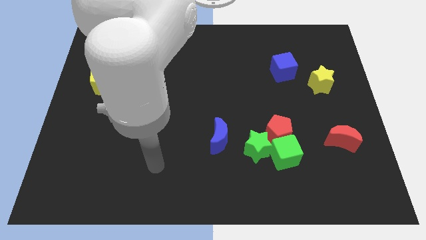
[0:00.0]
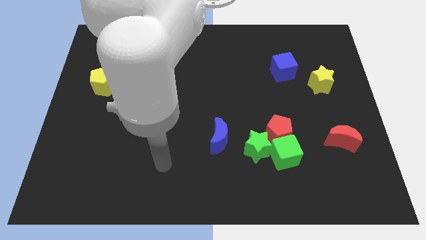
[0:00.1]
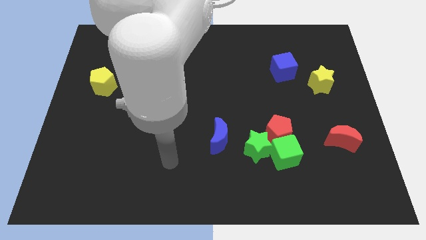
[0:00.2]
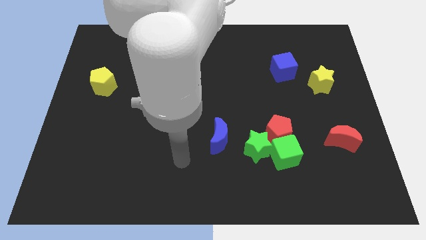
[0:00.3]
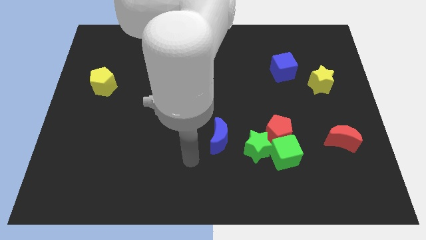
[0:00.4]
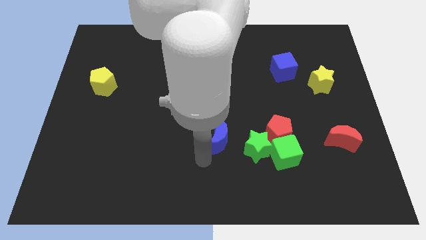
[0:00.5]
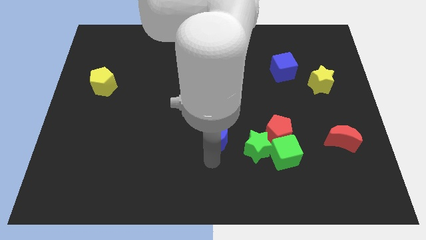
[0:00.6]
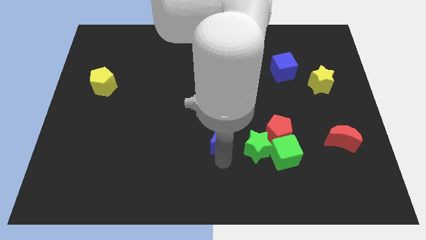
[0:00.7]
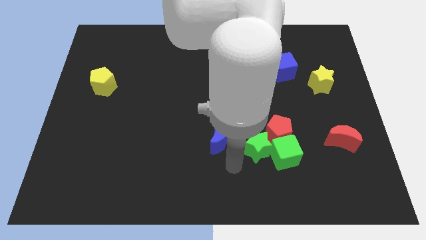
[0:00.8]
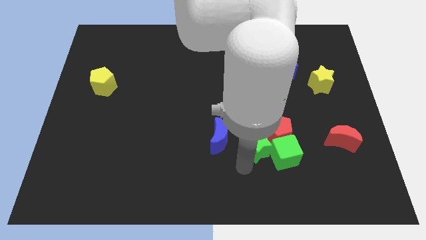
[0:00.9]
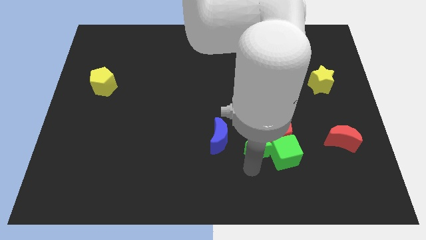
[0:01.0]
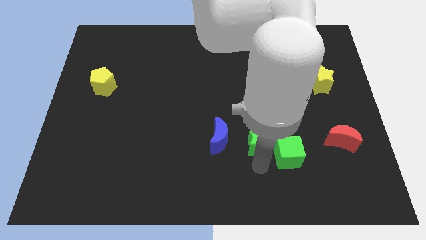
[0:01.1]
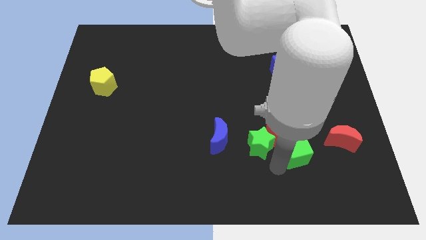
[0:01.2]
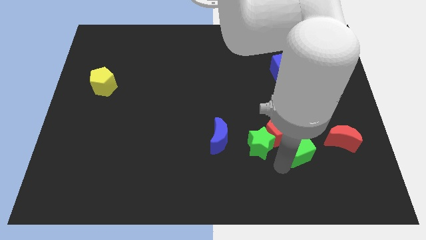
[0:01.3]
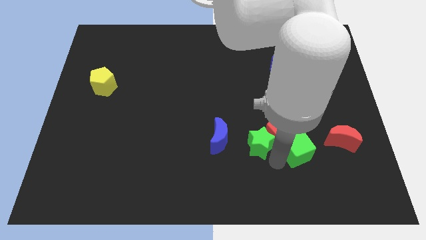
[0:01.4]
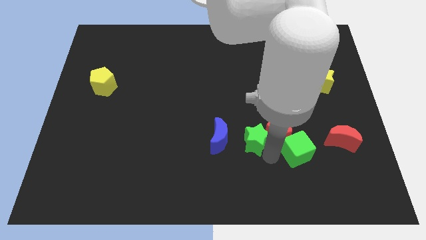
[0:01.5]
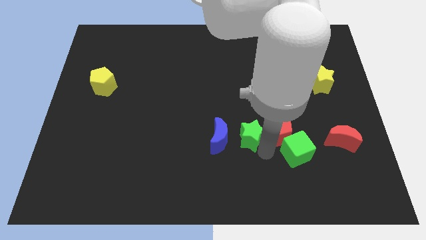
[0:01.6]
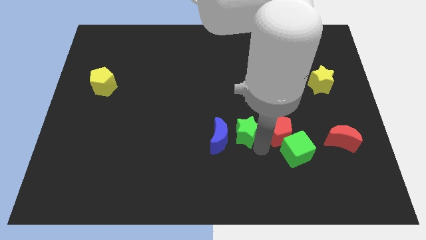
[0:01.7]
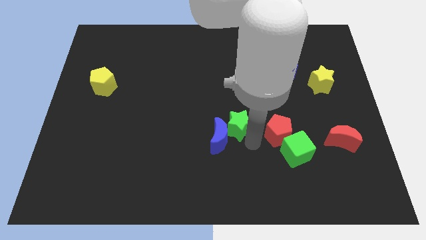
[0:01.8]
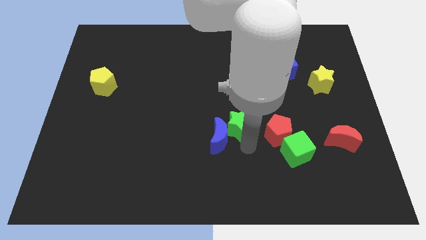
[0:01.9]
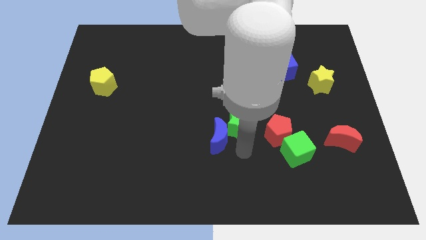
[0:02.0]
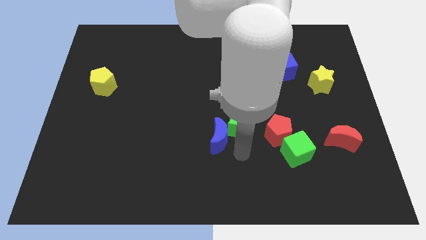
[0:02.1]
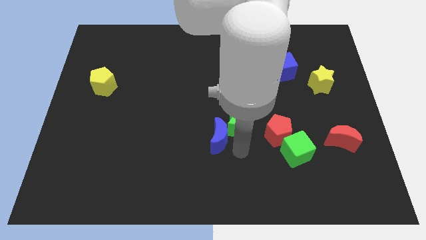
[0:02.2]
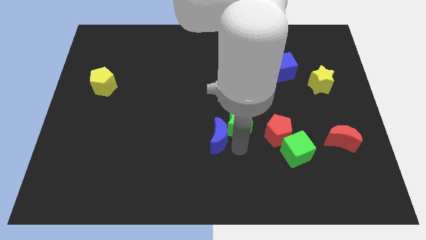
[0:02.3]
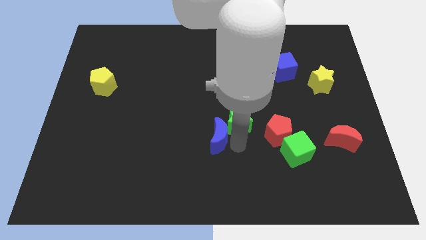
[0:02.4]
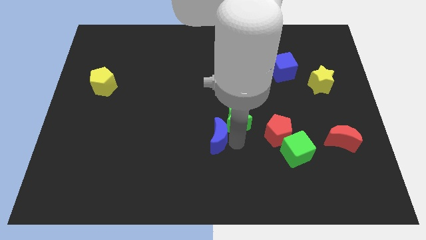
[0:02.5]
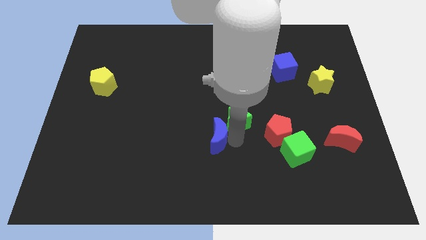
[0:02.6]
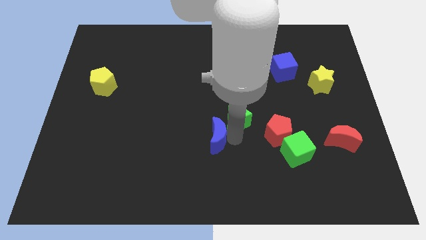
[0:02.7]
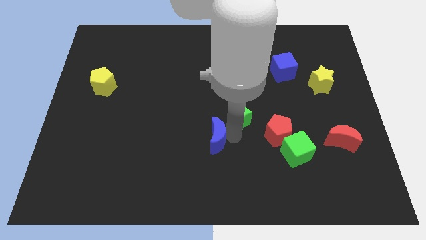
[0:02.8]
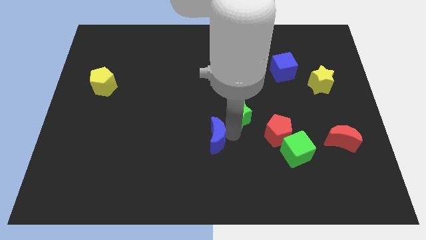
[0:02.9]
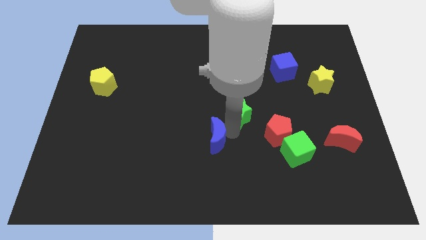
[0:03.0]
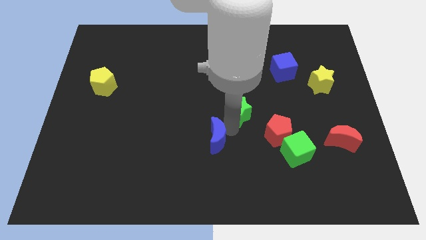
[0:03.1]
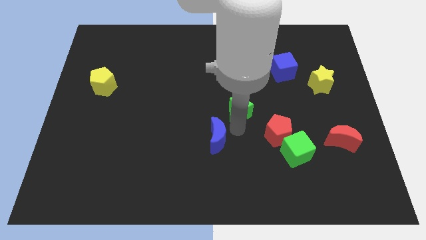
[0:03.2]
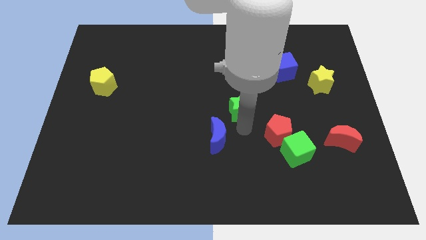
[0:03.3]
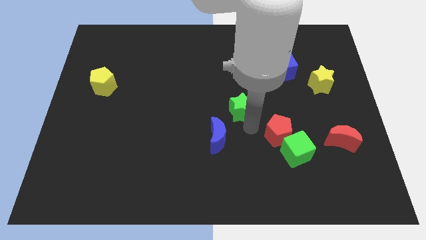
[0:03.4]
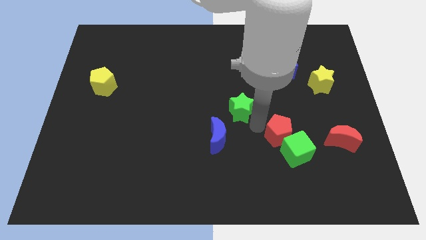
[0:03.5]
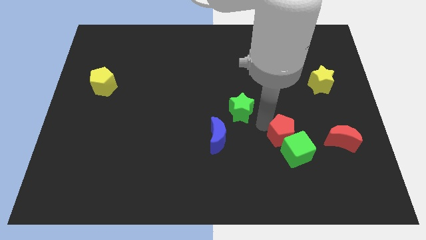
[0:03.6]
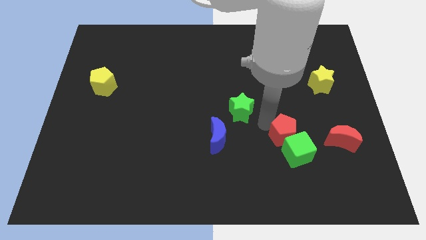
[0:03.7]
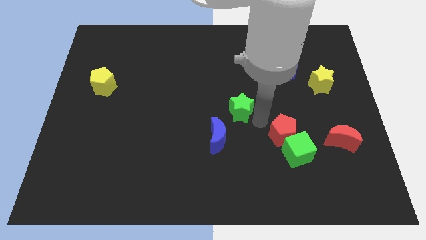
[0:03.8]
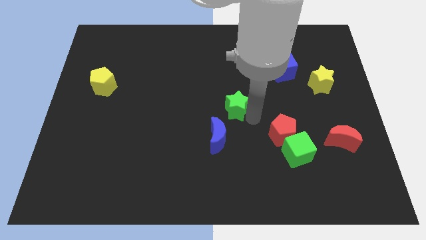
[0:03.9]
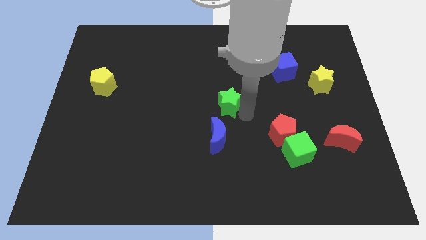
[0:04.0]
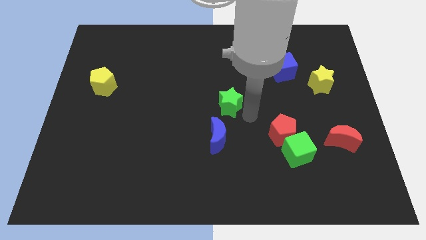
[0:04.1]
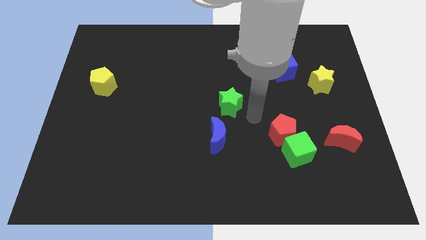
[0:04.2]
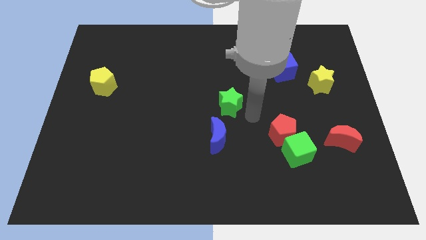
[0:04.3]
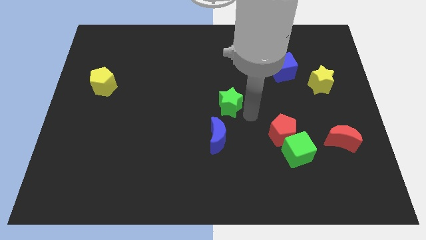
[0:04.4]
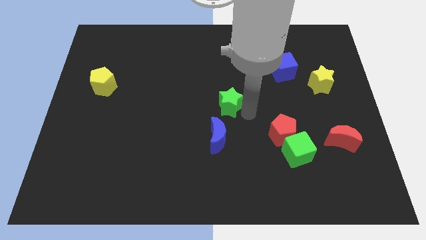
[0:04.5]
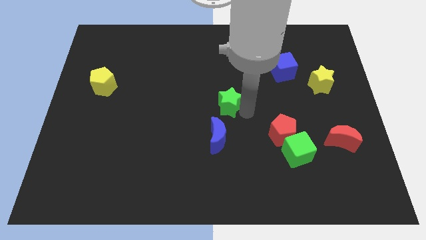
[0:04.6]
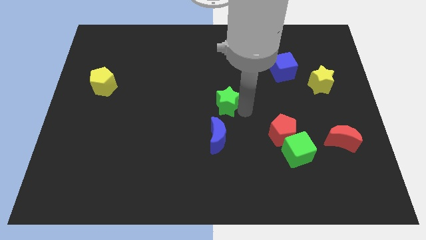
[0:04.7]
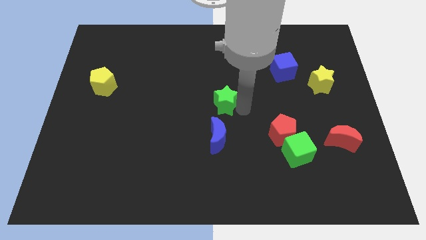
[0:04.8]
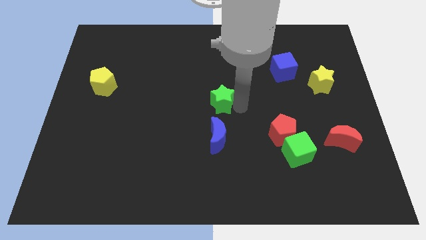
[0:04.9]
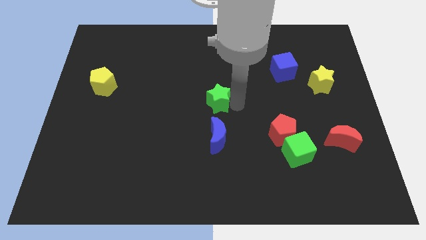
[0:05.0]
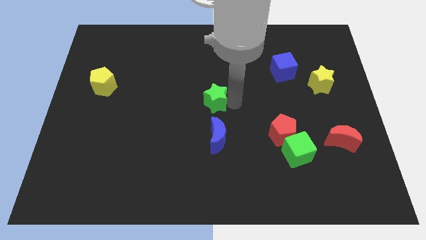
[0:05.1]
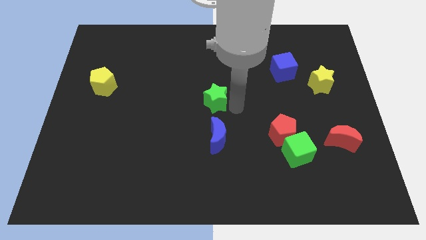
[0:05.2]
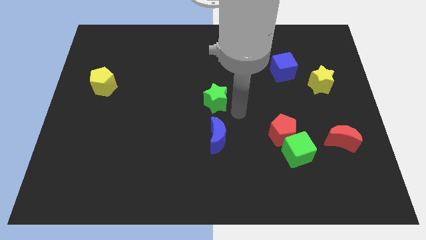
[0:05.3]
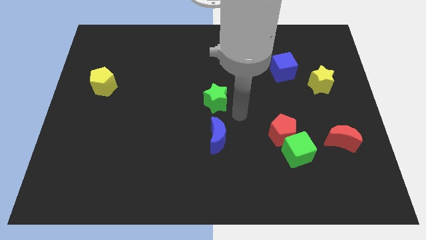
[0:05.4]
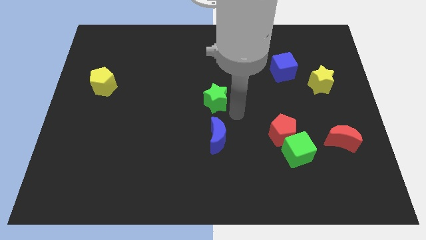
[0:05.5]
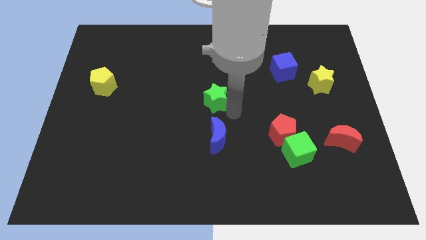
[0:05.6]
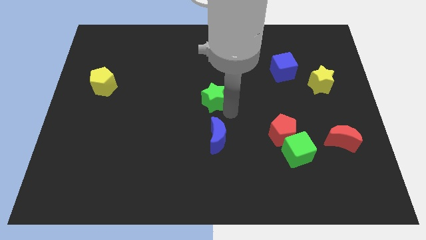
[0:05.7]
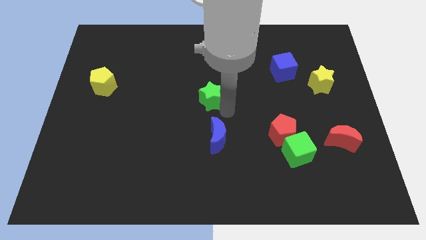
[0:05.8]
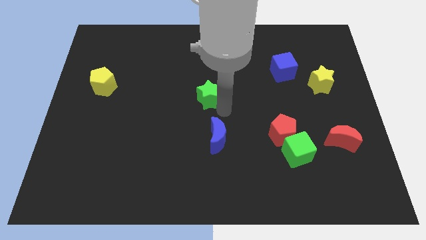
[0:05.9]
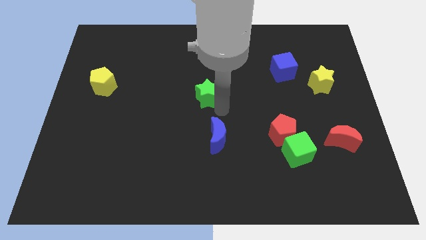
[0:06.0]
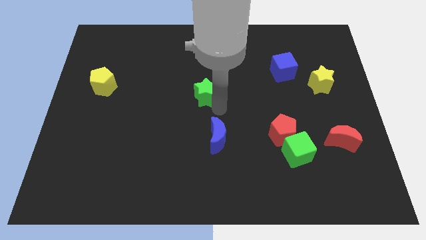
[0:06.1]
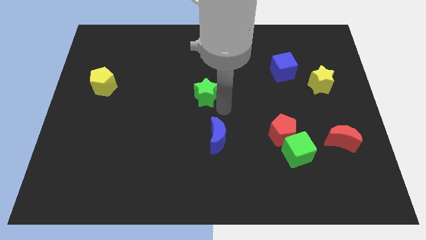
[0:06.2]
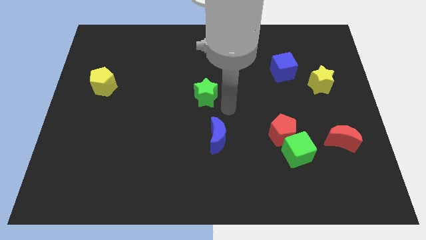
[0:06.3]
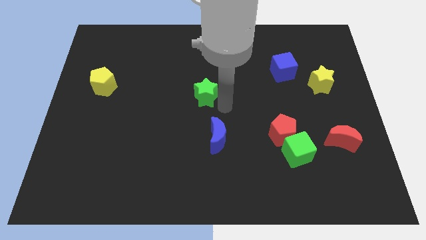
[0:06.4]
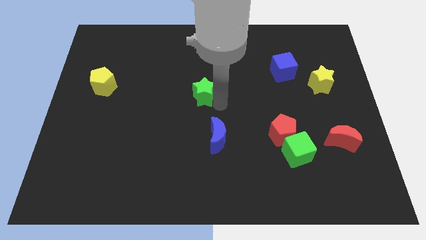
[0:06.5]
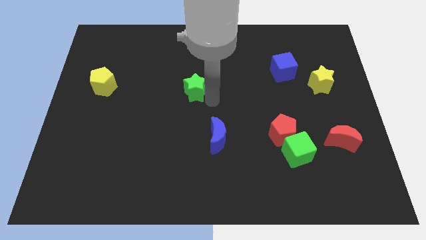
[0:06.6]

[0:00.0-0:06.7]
slide the green star diagonally upwards and to the left

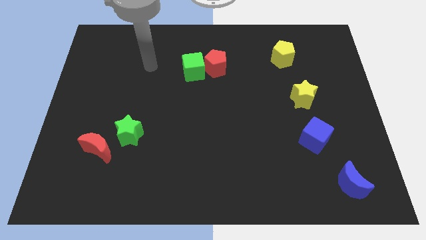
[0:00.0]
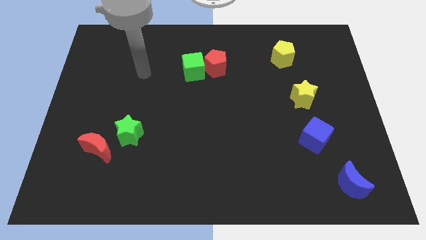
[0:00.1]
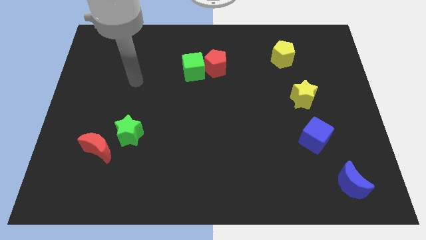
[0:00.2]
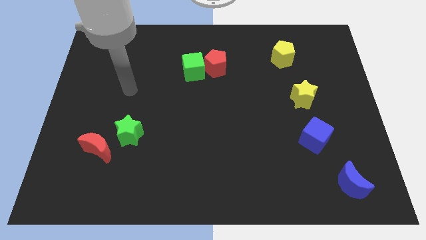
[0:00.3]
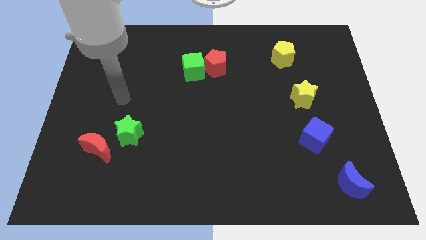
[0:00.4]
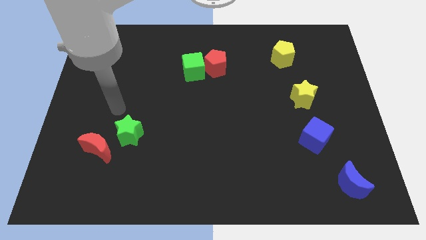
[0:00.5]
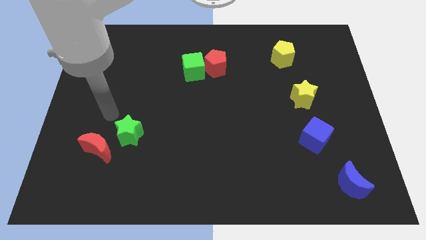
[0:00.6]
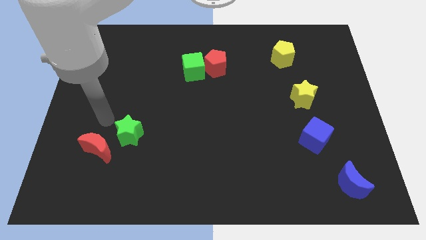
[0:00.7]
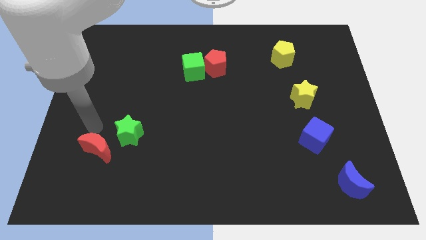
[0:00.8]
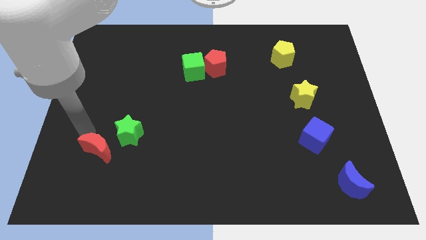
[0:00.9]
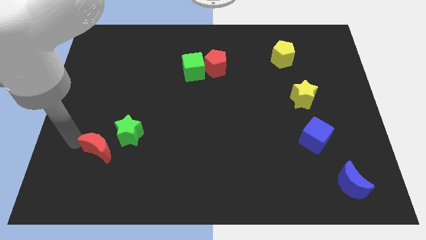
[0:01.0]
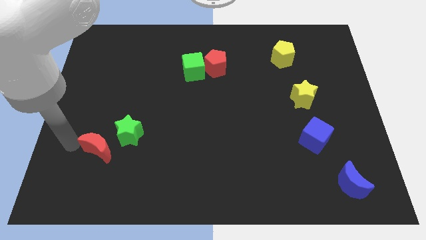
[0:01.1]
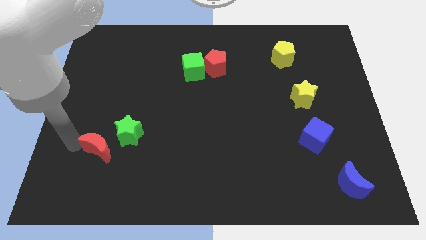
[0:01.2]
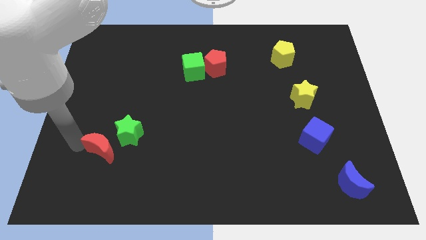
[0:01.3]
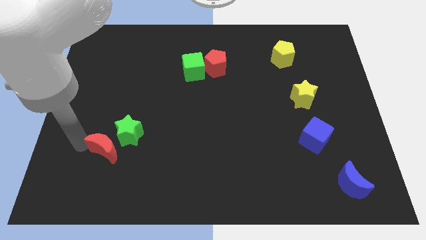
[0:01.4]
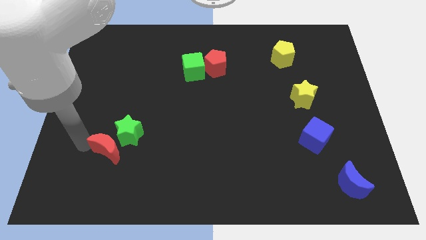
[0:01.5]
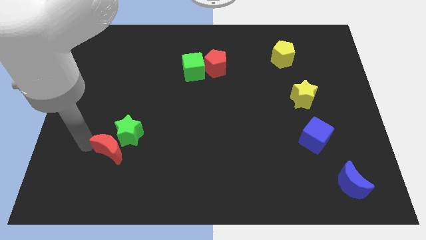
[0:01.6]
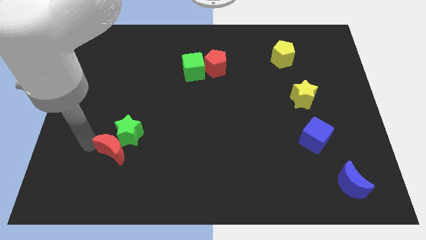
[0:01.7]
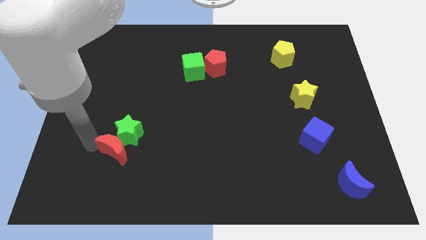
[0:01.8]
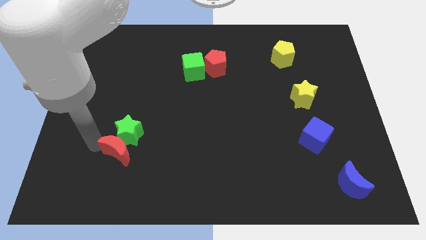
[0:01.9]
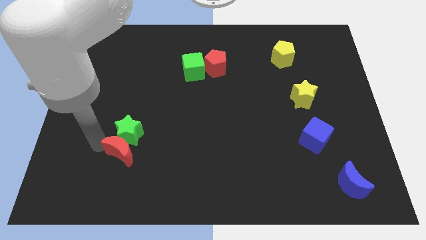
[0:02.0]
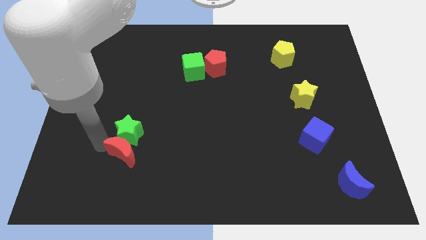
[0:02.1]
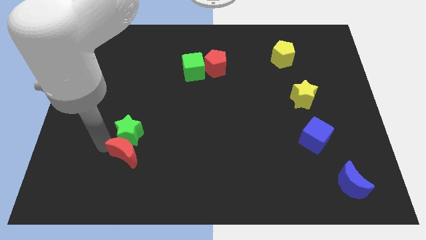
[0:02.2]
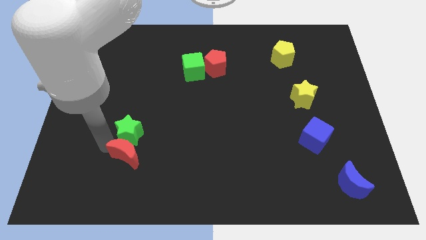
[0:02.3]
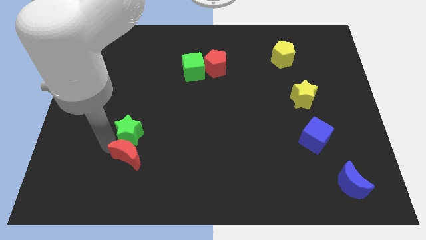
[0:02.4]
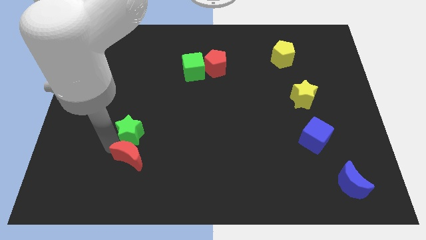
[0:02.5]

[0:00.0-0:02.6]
slide the red moon slightly to the right
